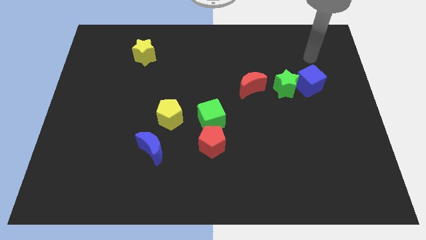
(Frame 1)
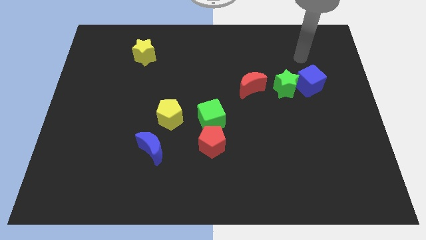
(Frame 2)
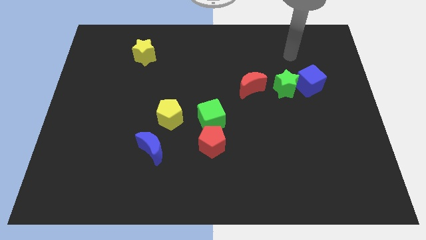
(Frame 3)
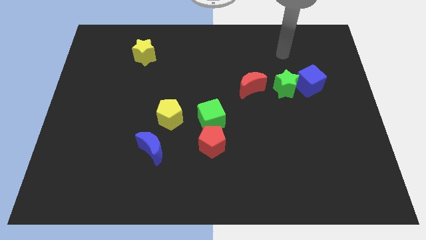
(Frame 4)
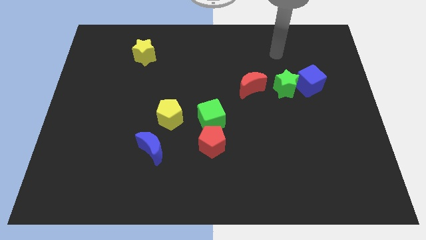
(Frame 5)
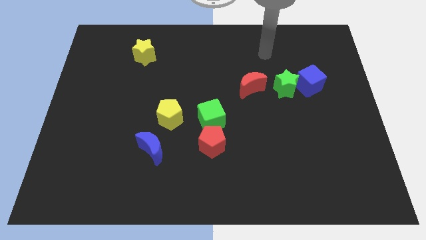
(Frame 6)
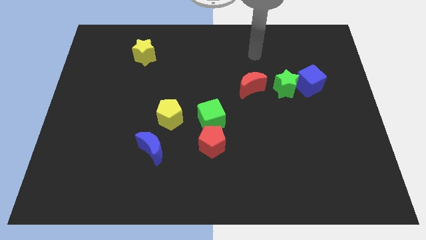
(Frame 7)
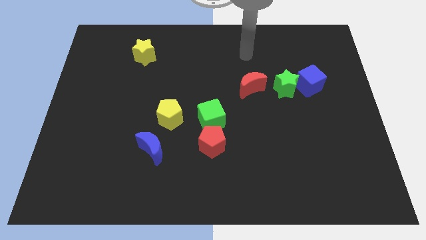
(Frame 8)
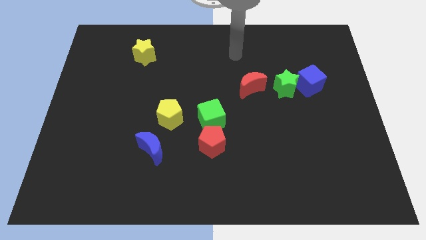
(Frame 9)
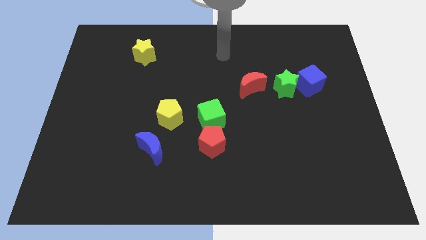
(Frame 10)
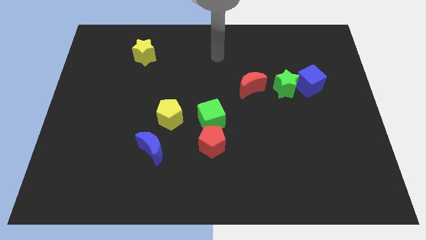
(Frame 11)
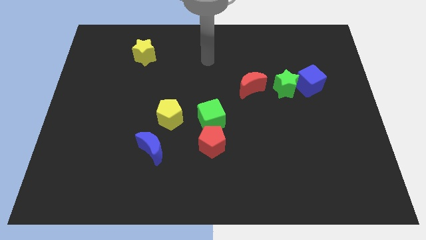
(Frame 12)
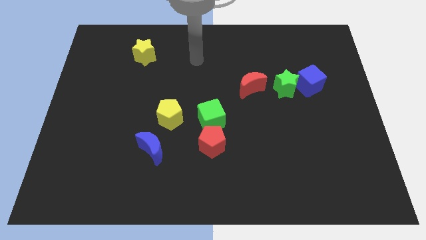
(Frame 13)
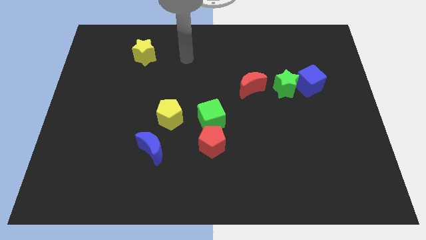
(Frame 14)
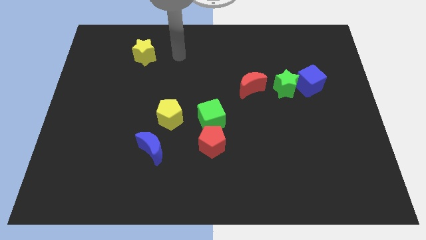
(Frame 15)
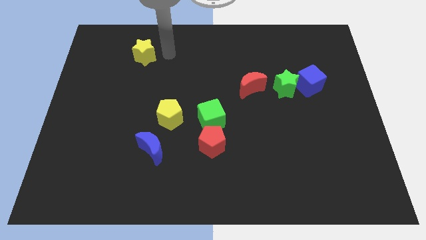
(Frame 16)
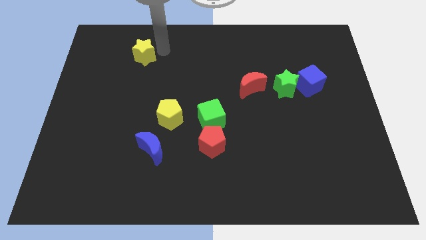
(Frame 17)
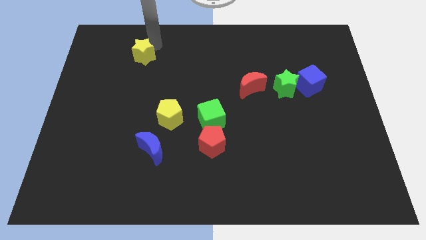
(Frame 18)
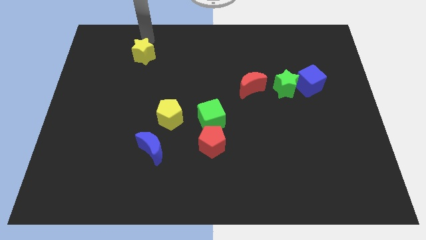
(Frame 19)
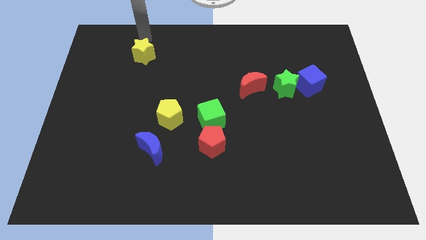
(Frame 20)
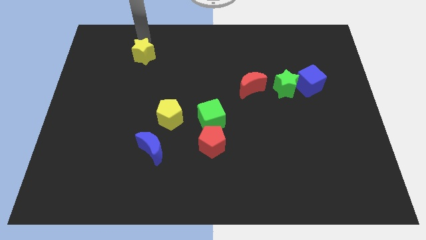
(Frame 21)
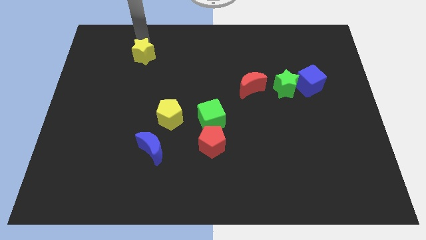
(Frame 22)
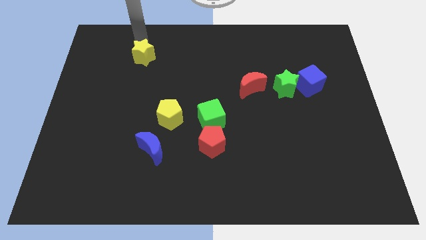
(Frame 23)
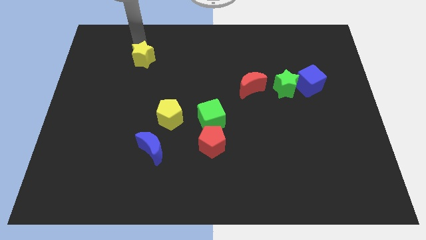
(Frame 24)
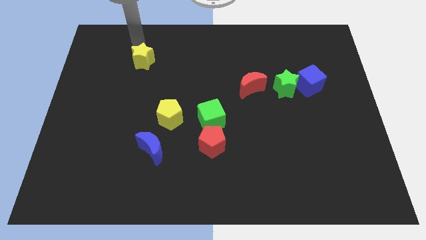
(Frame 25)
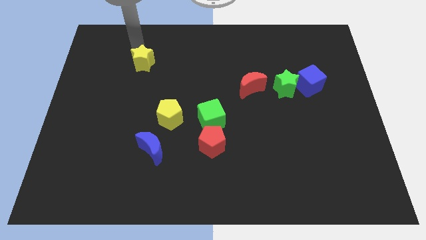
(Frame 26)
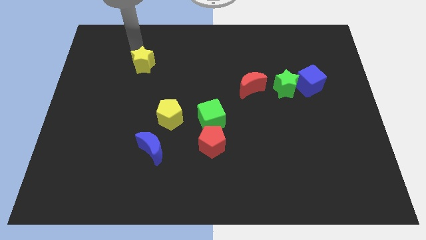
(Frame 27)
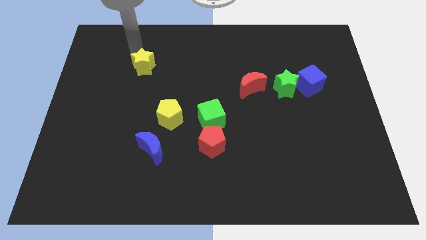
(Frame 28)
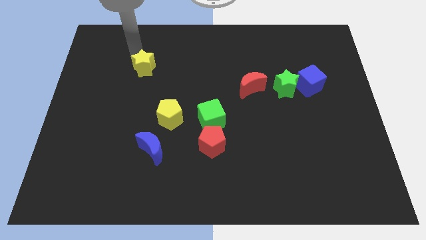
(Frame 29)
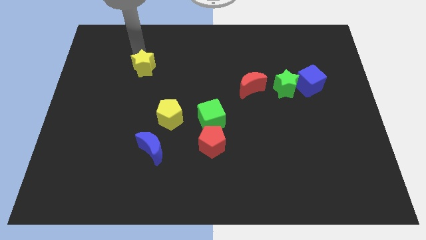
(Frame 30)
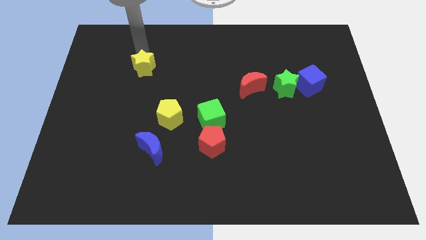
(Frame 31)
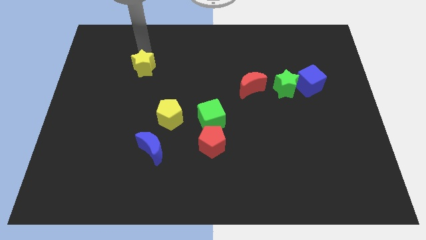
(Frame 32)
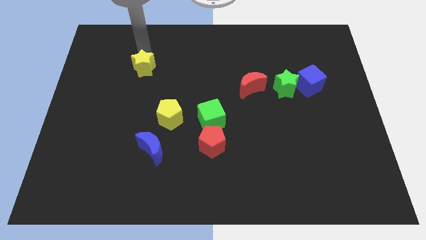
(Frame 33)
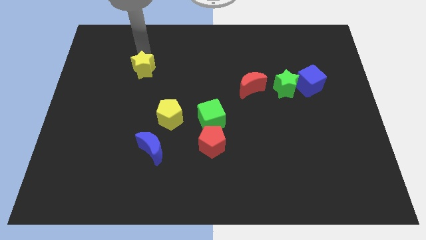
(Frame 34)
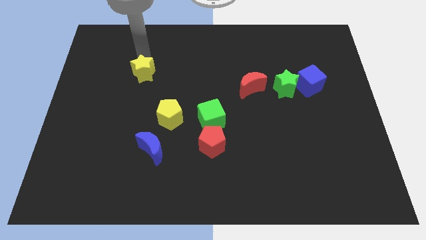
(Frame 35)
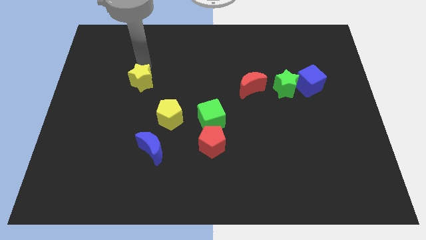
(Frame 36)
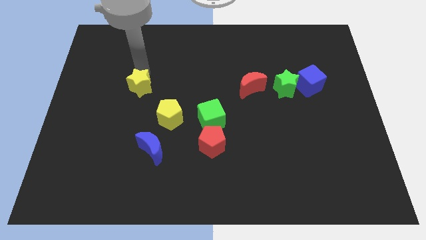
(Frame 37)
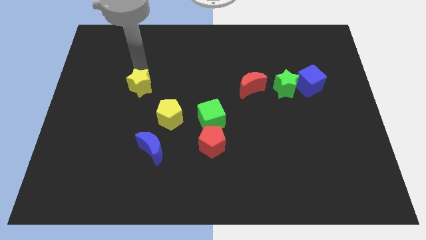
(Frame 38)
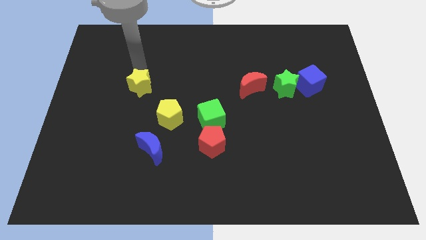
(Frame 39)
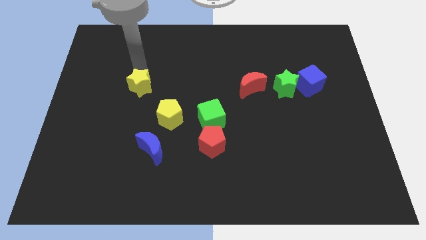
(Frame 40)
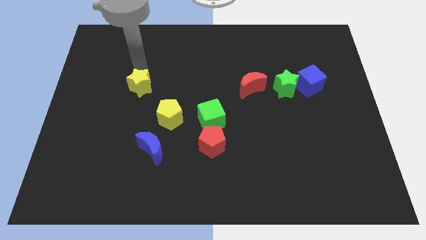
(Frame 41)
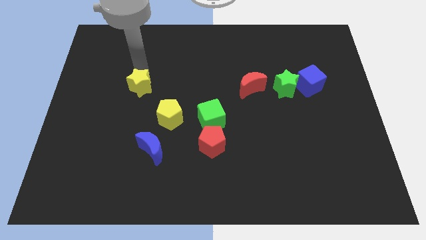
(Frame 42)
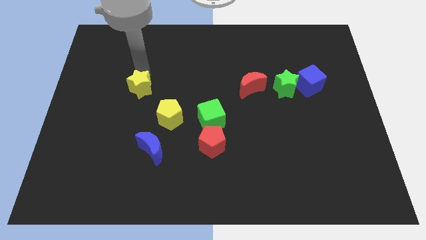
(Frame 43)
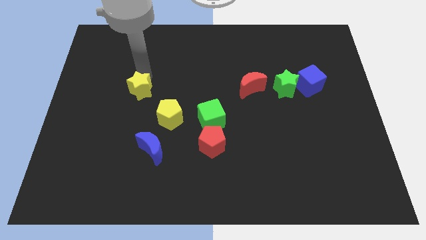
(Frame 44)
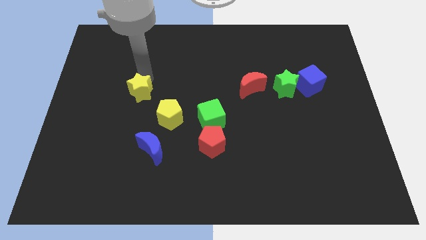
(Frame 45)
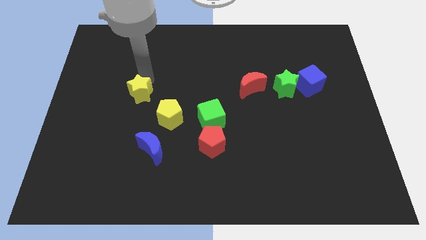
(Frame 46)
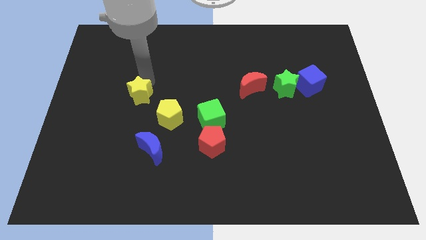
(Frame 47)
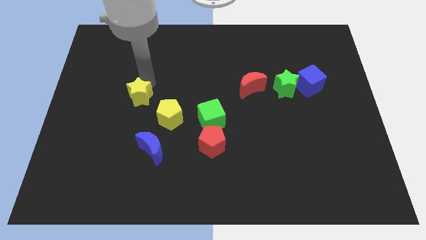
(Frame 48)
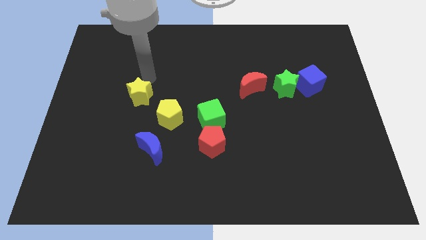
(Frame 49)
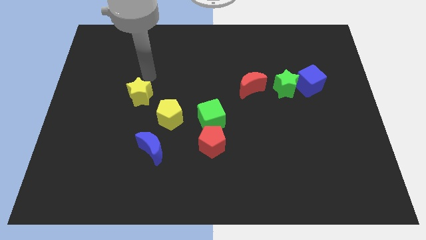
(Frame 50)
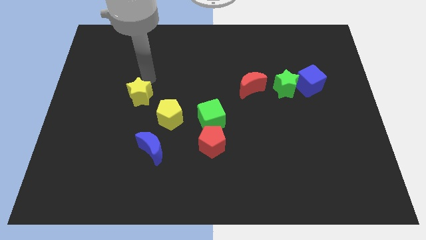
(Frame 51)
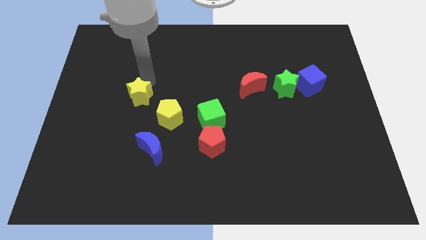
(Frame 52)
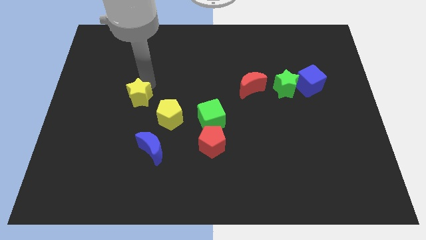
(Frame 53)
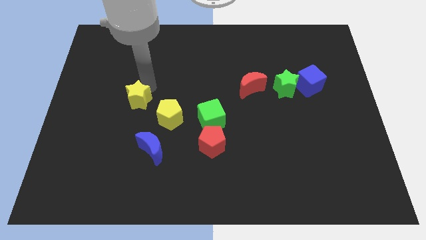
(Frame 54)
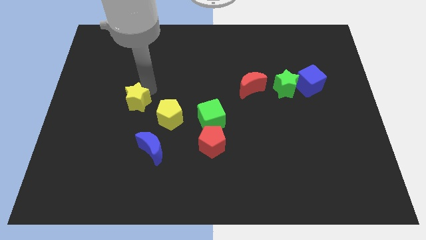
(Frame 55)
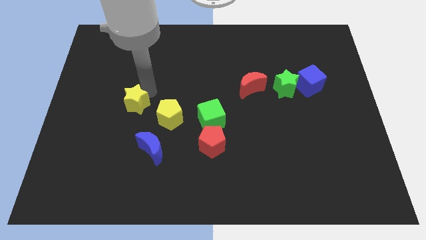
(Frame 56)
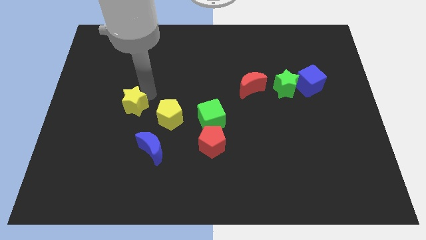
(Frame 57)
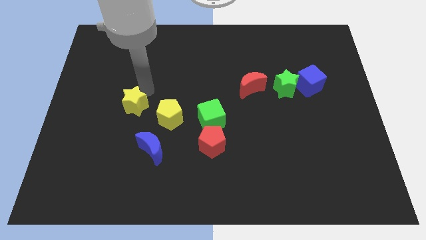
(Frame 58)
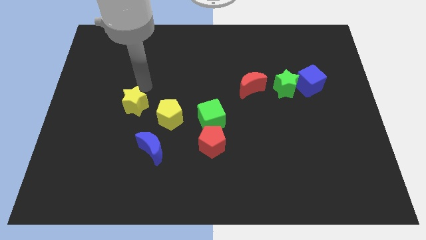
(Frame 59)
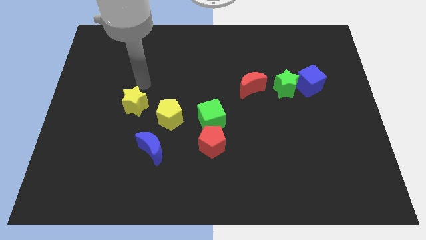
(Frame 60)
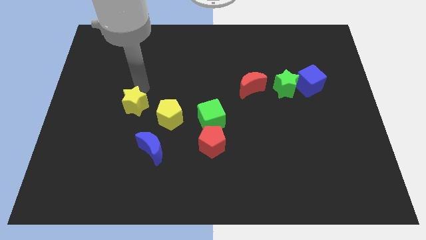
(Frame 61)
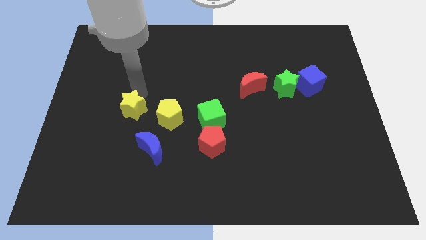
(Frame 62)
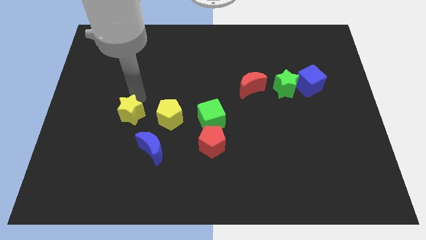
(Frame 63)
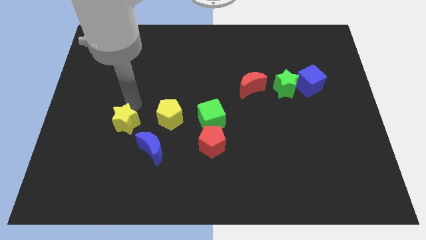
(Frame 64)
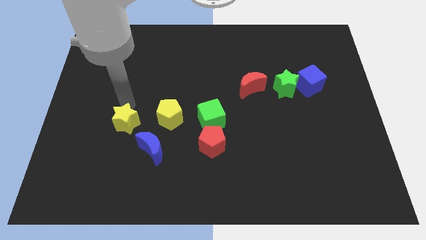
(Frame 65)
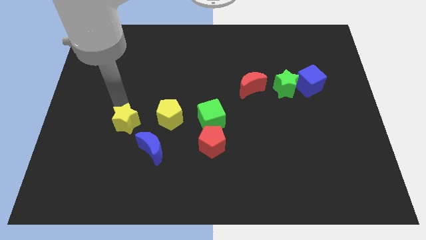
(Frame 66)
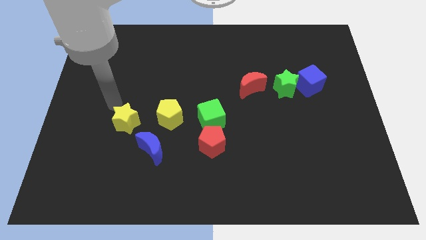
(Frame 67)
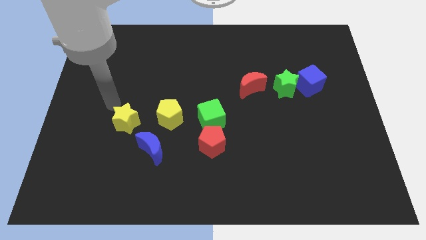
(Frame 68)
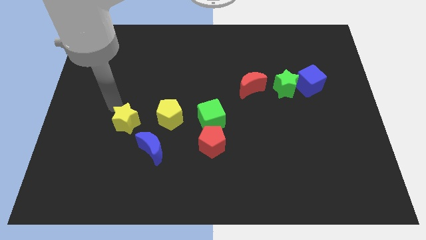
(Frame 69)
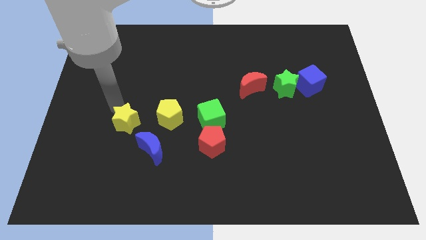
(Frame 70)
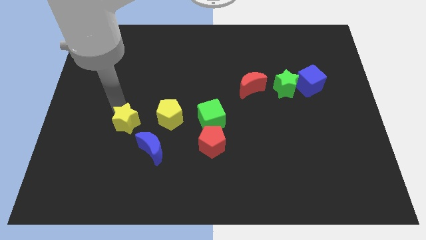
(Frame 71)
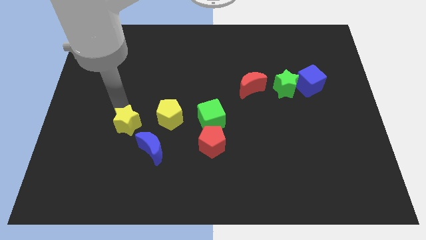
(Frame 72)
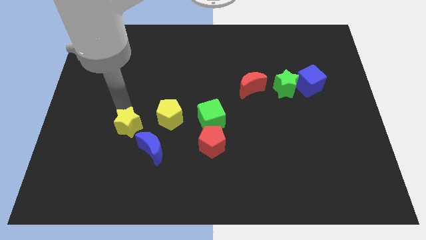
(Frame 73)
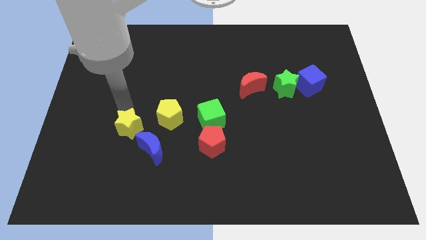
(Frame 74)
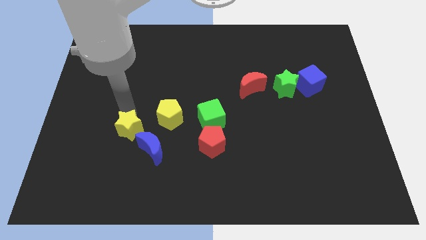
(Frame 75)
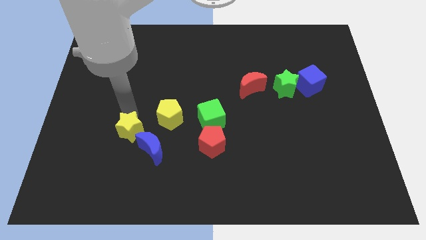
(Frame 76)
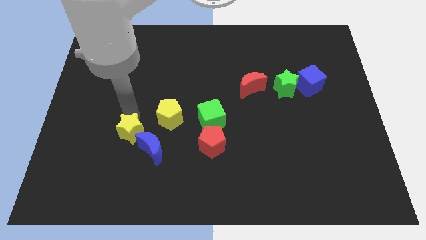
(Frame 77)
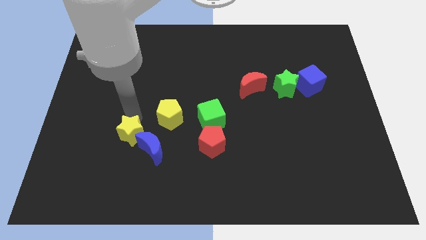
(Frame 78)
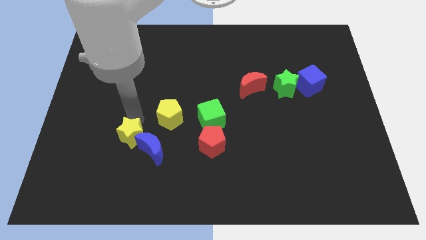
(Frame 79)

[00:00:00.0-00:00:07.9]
move the yellow star to the blue moon
